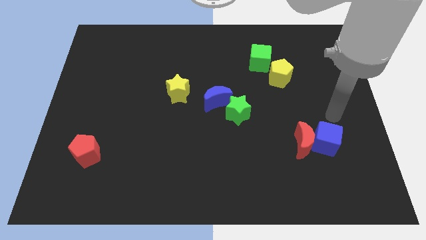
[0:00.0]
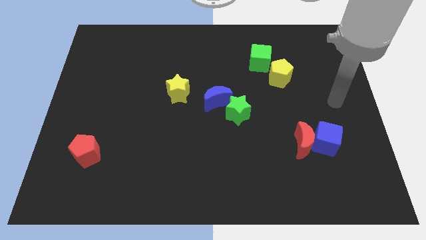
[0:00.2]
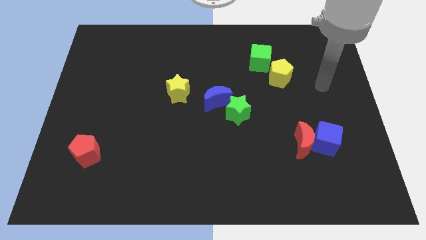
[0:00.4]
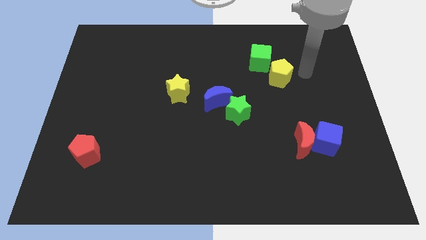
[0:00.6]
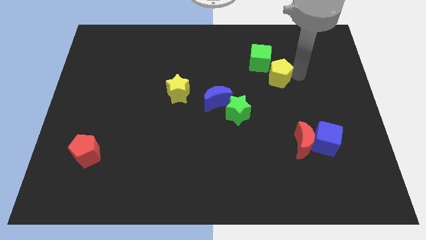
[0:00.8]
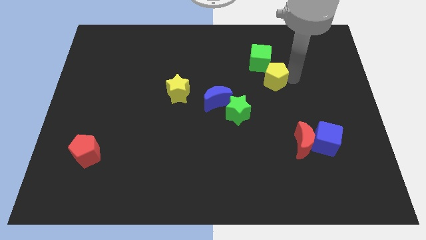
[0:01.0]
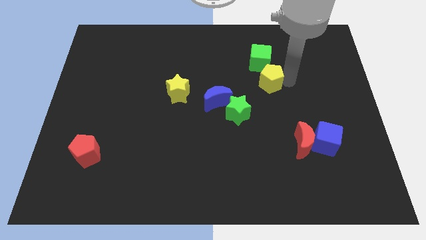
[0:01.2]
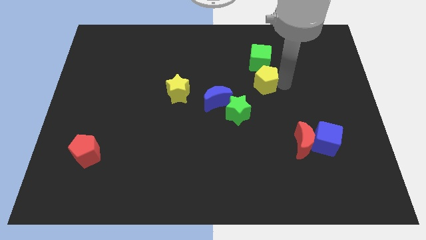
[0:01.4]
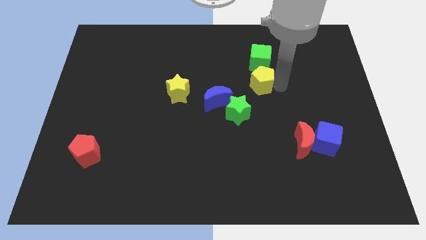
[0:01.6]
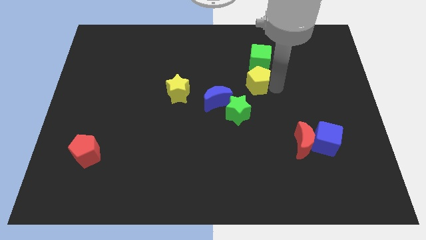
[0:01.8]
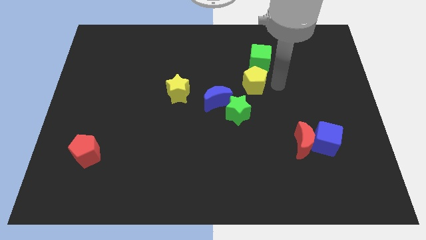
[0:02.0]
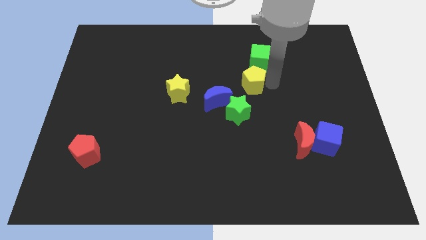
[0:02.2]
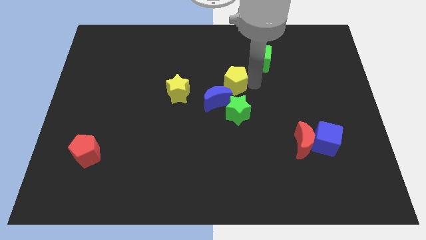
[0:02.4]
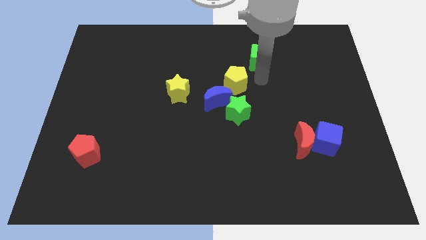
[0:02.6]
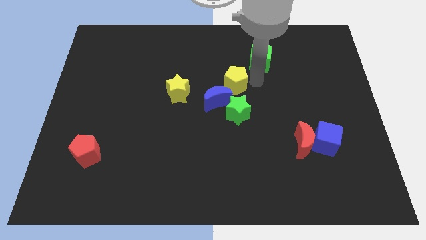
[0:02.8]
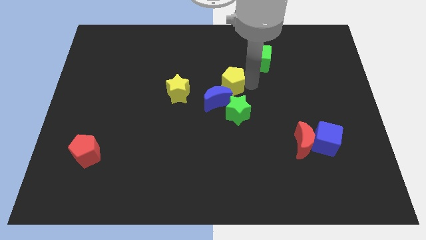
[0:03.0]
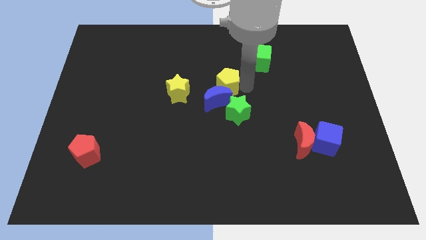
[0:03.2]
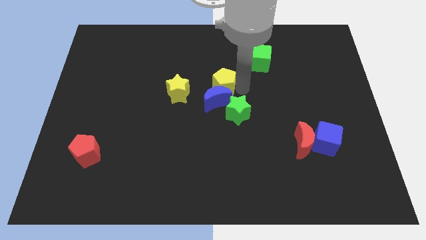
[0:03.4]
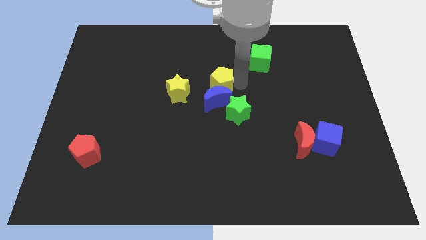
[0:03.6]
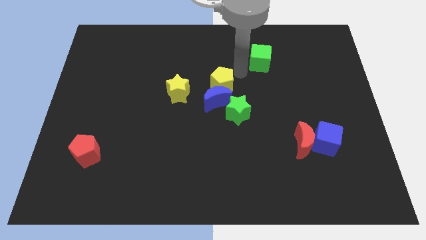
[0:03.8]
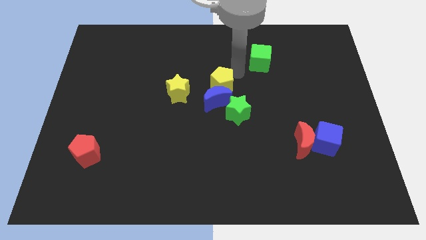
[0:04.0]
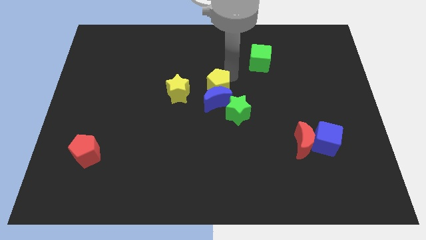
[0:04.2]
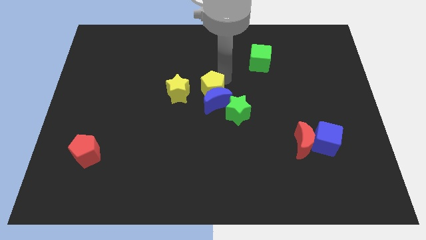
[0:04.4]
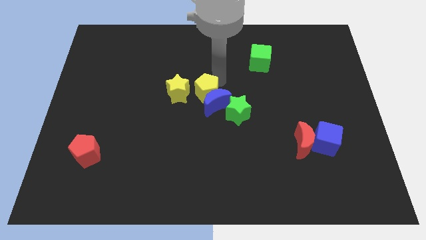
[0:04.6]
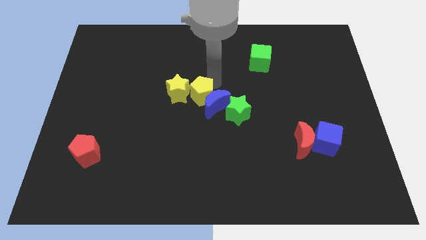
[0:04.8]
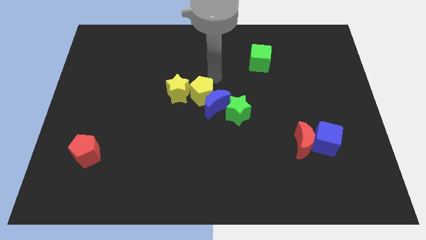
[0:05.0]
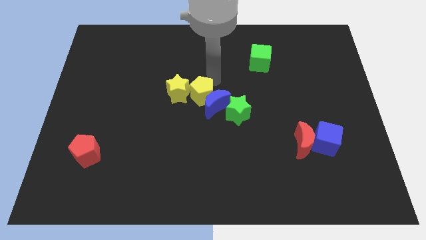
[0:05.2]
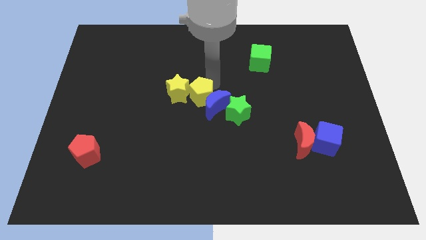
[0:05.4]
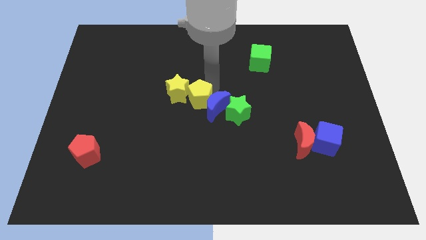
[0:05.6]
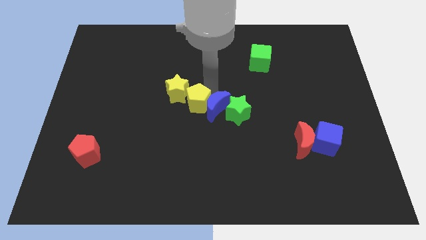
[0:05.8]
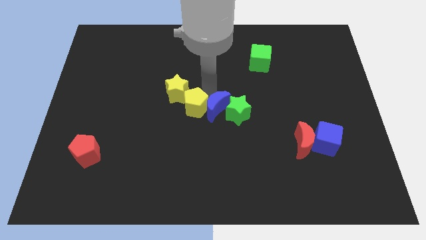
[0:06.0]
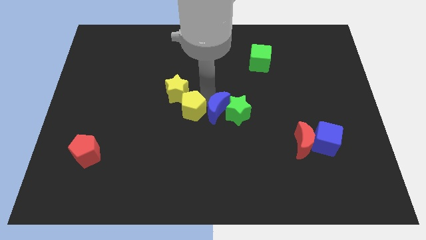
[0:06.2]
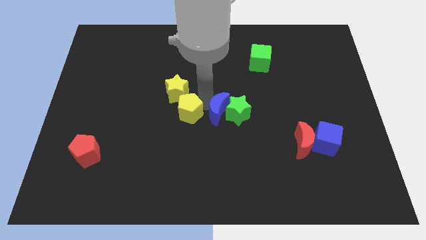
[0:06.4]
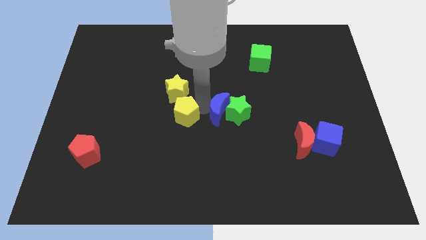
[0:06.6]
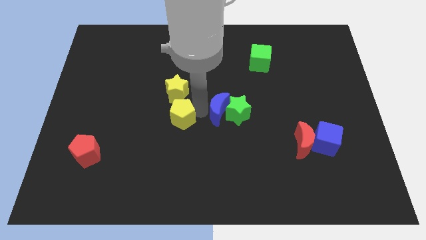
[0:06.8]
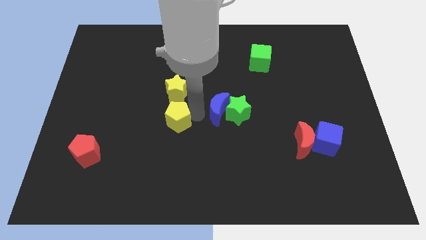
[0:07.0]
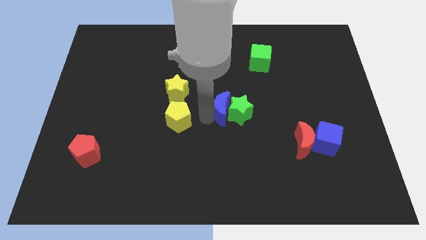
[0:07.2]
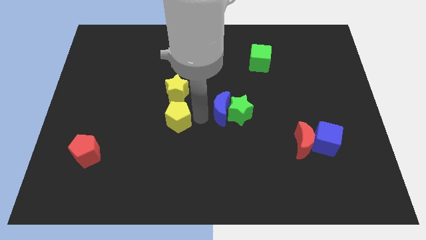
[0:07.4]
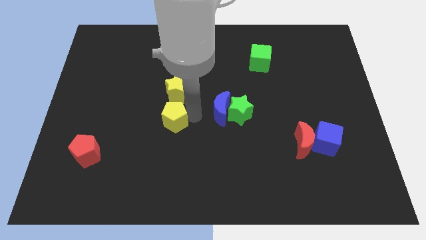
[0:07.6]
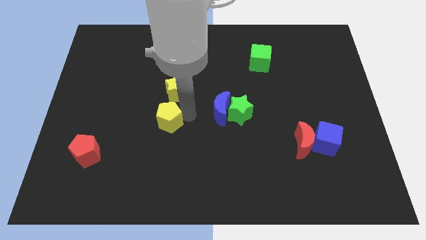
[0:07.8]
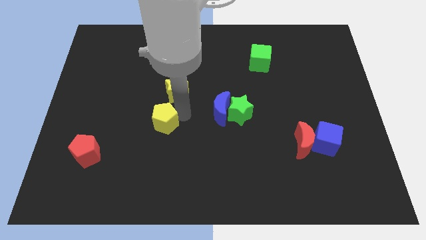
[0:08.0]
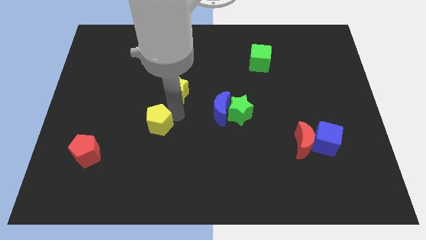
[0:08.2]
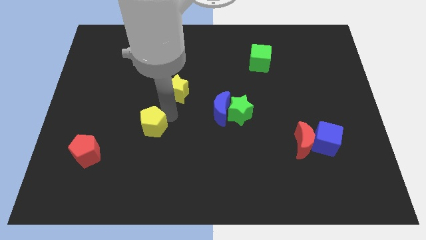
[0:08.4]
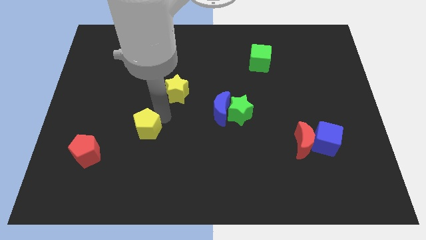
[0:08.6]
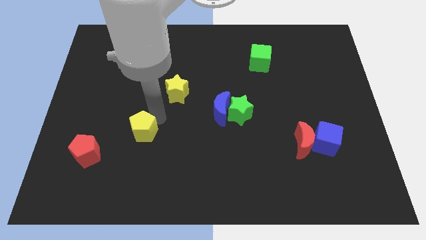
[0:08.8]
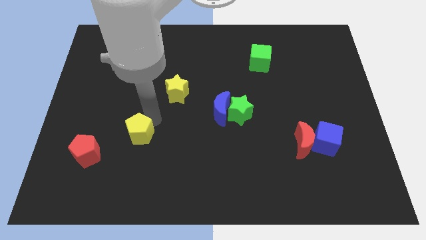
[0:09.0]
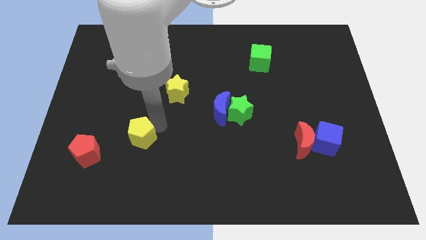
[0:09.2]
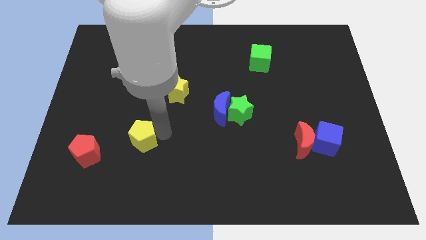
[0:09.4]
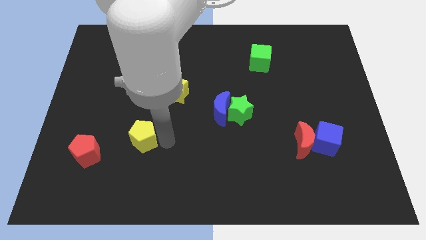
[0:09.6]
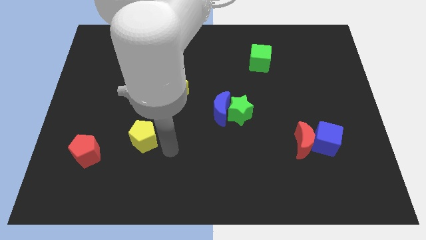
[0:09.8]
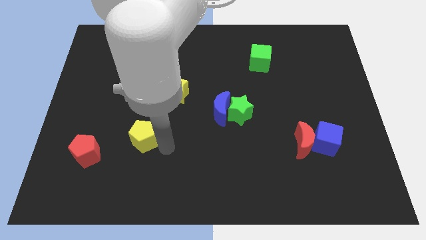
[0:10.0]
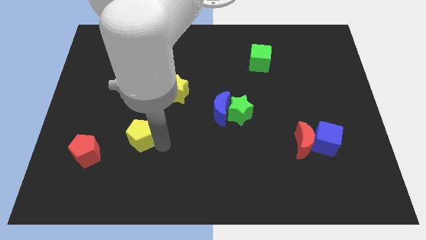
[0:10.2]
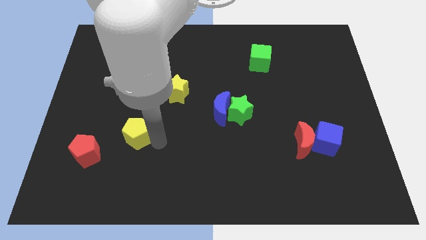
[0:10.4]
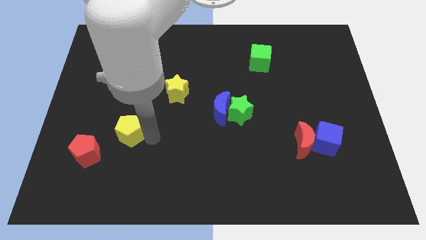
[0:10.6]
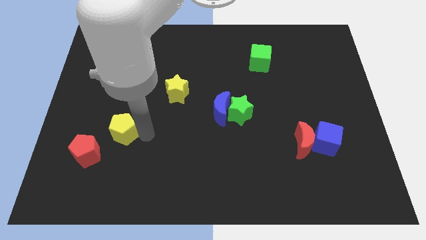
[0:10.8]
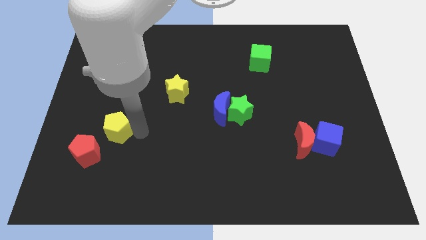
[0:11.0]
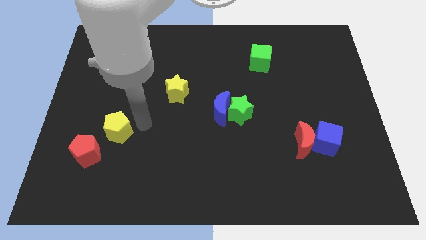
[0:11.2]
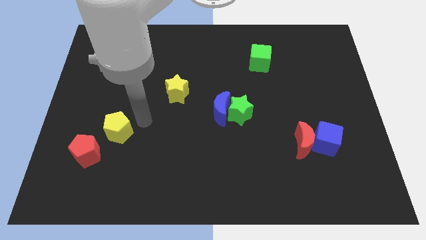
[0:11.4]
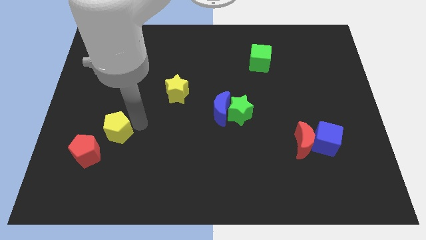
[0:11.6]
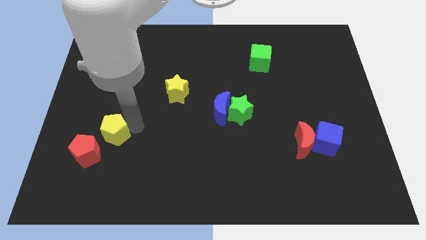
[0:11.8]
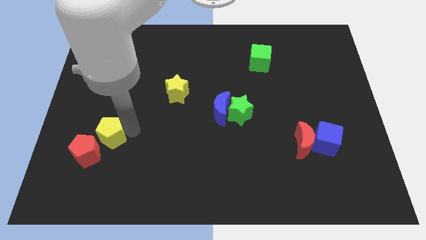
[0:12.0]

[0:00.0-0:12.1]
move the yellow pentagon next to the red pentagon

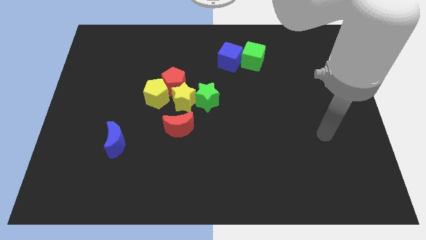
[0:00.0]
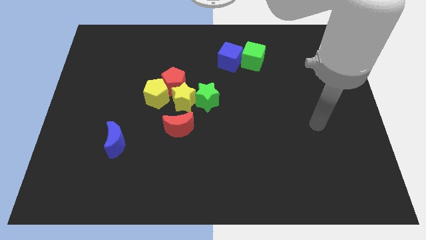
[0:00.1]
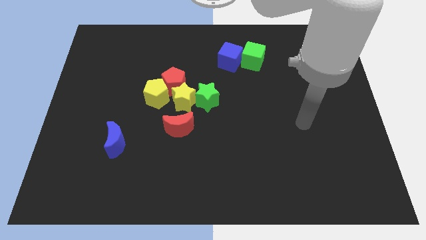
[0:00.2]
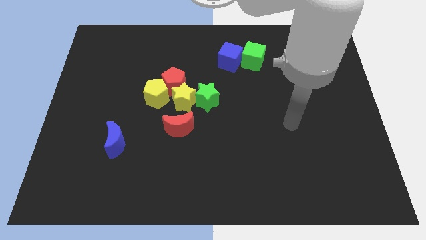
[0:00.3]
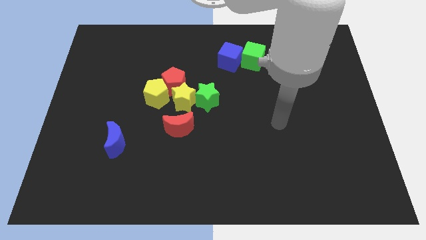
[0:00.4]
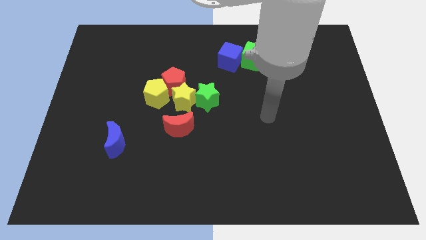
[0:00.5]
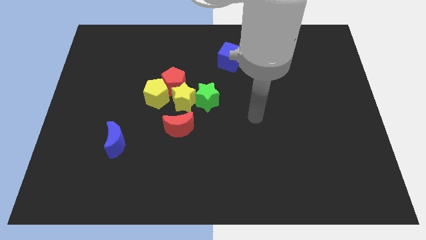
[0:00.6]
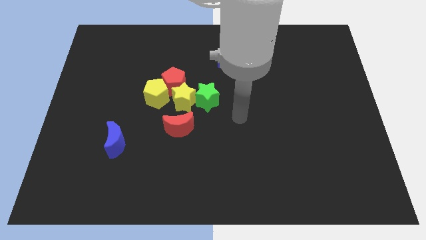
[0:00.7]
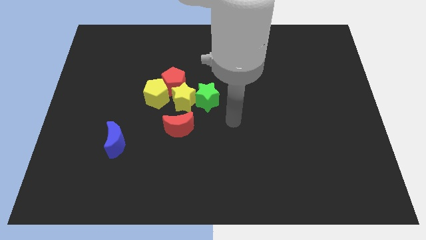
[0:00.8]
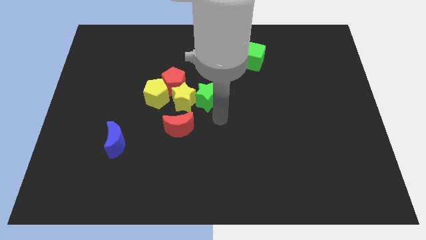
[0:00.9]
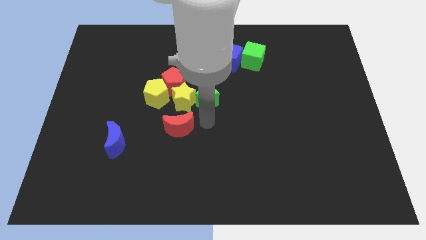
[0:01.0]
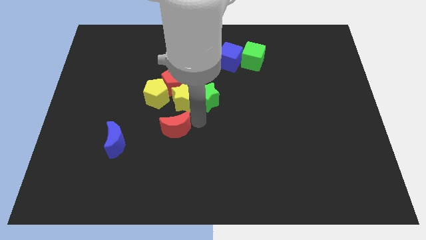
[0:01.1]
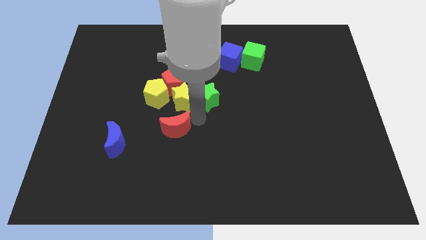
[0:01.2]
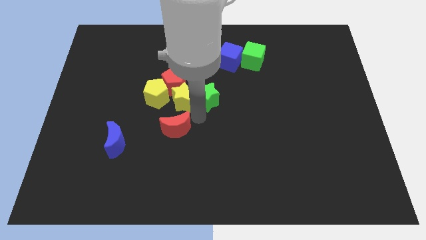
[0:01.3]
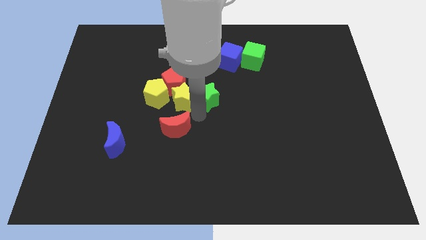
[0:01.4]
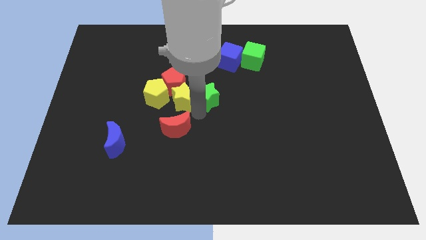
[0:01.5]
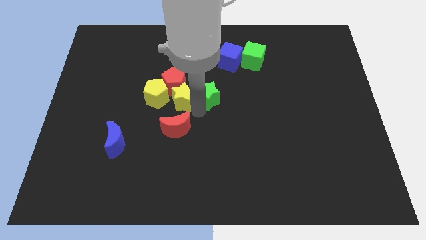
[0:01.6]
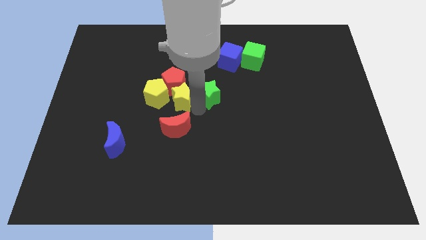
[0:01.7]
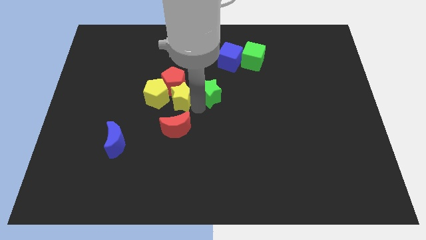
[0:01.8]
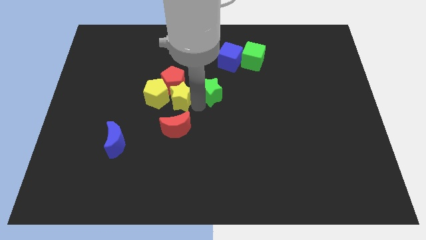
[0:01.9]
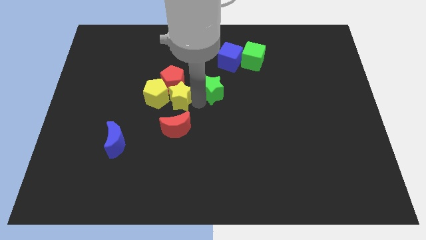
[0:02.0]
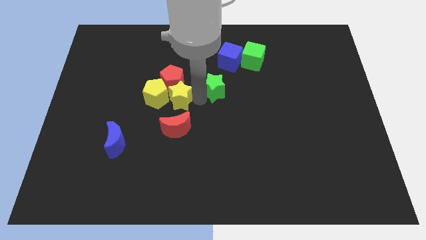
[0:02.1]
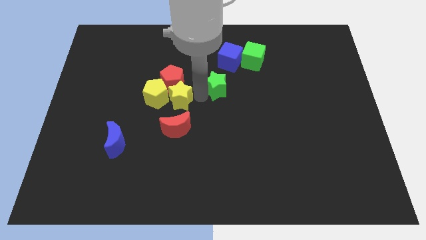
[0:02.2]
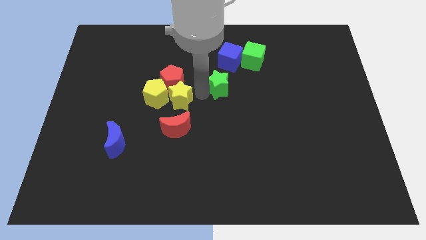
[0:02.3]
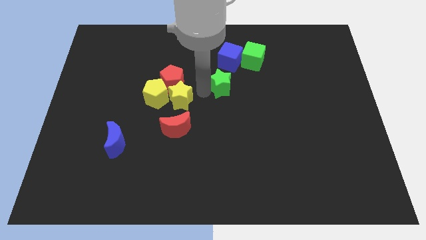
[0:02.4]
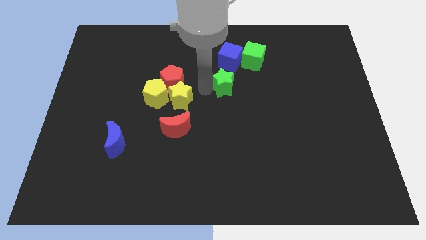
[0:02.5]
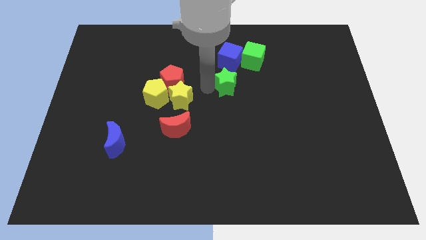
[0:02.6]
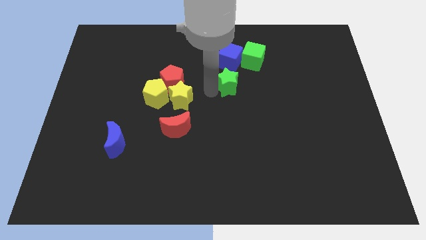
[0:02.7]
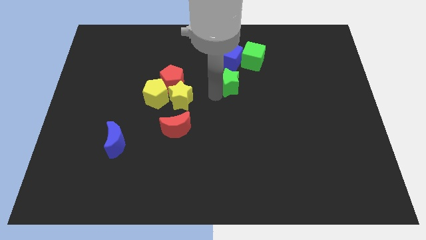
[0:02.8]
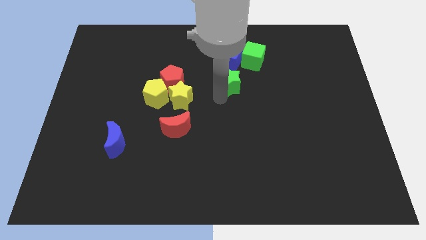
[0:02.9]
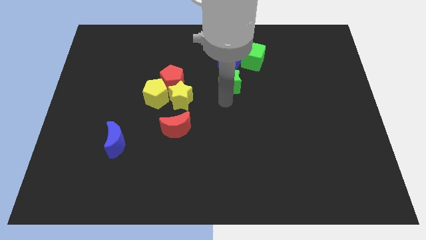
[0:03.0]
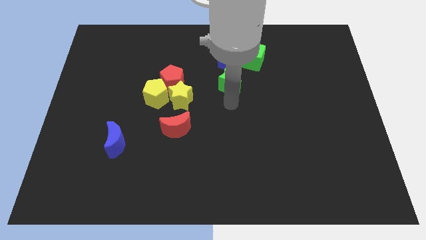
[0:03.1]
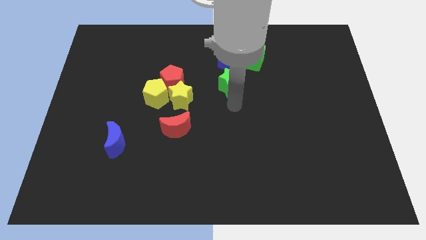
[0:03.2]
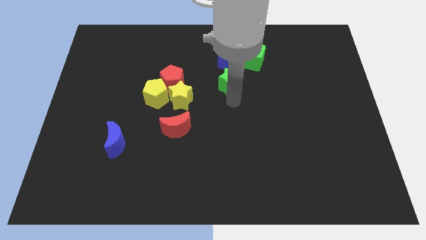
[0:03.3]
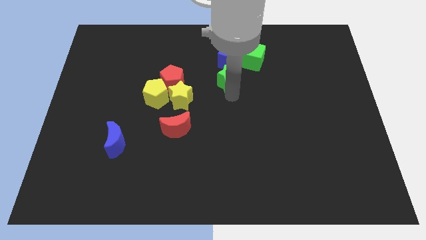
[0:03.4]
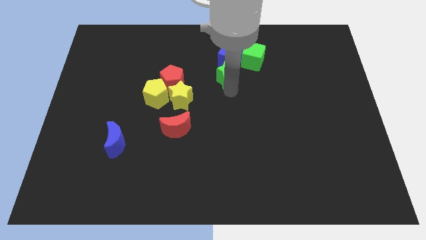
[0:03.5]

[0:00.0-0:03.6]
push the green star towards the blue cube
